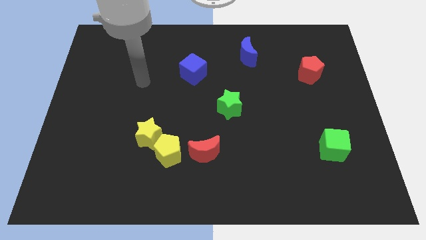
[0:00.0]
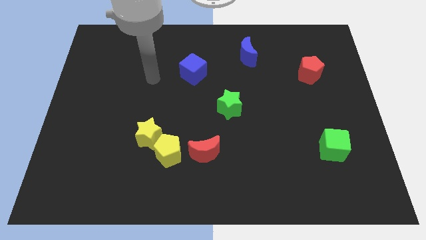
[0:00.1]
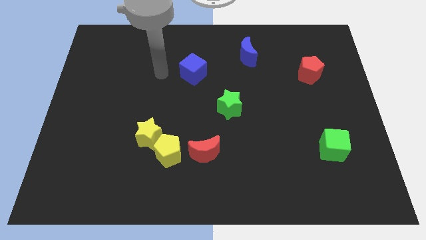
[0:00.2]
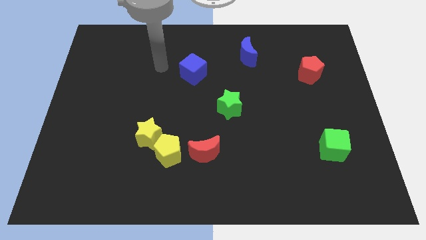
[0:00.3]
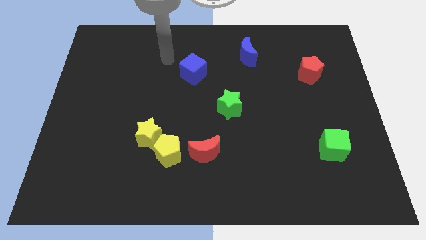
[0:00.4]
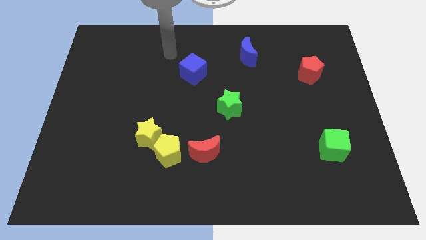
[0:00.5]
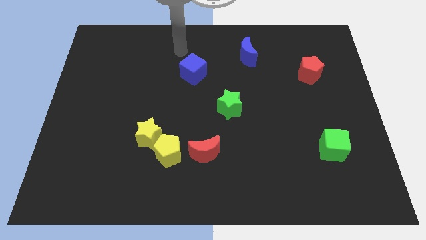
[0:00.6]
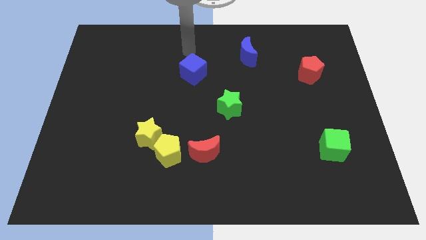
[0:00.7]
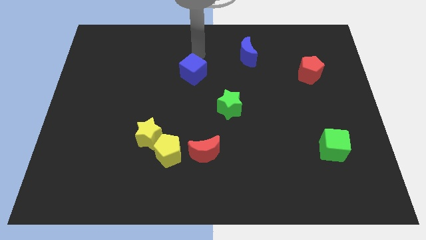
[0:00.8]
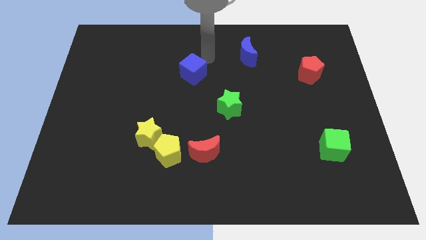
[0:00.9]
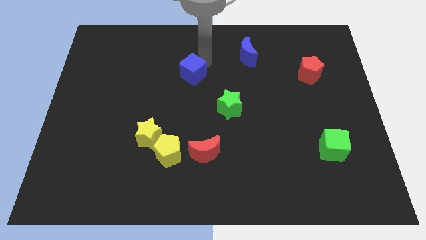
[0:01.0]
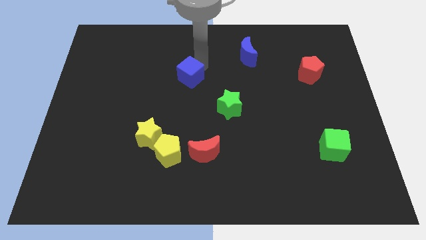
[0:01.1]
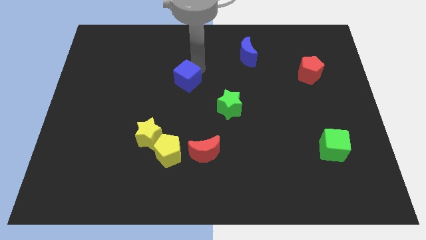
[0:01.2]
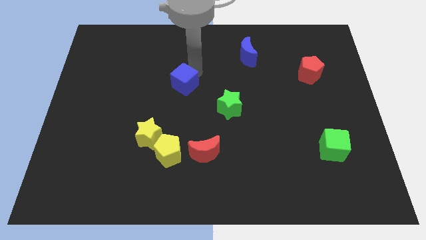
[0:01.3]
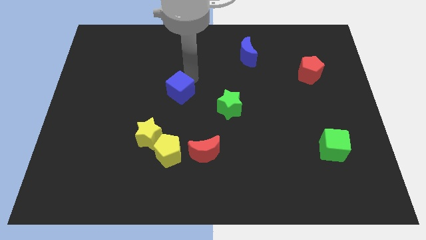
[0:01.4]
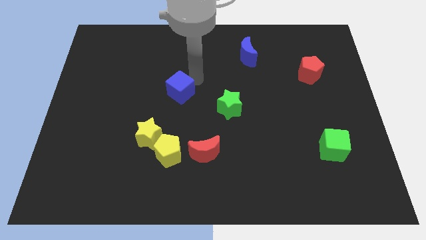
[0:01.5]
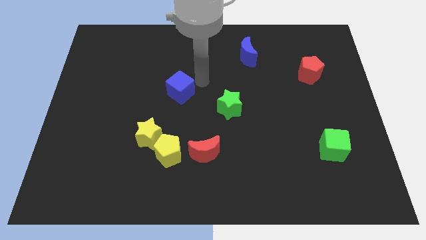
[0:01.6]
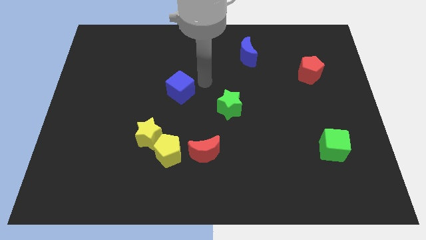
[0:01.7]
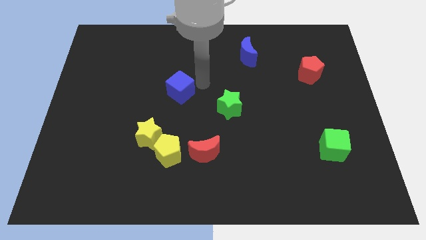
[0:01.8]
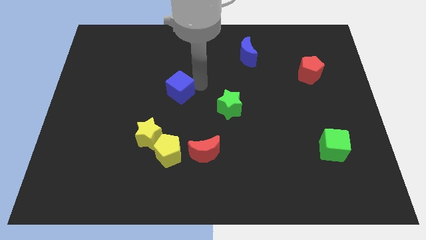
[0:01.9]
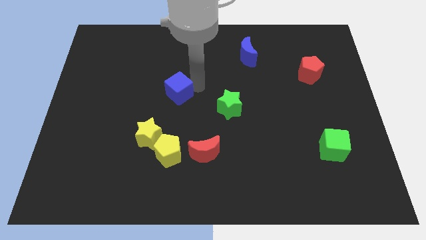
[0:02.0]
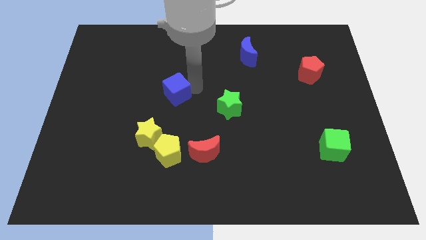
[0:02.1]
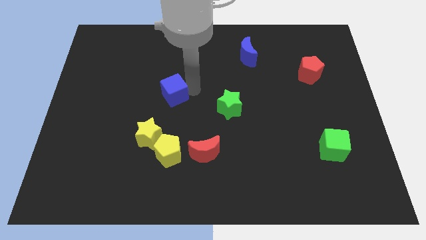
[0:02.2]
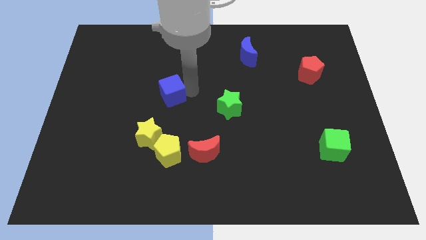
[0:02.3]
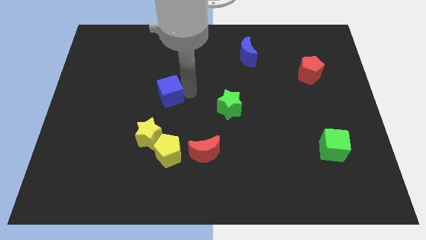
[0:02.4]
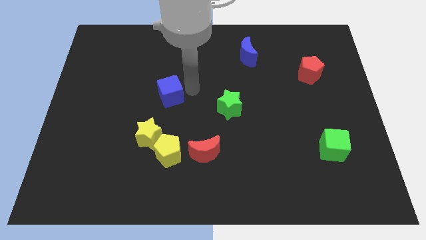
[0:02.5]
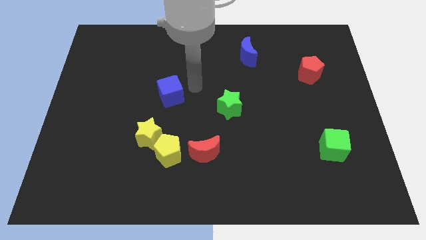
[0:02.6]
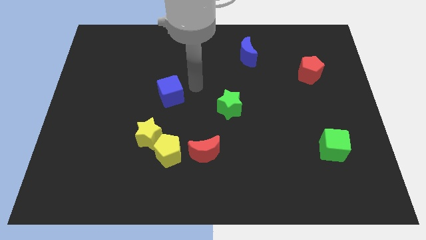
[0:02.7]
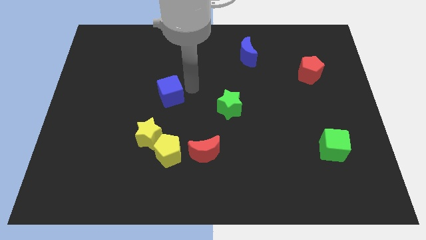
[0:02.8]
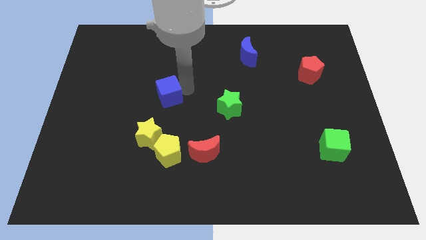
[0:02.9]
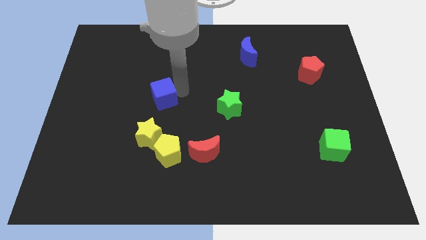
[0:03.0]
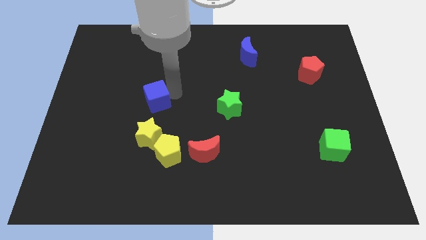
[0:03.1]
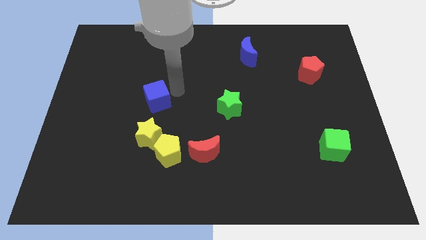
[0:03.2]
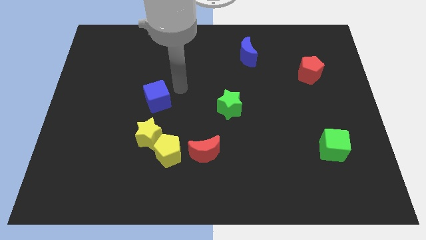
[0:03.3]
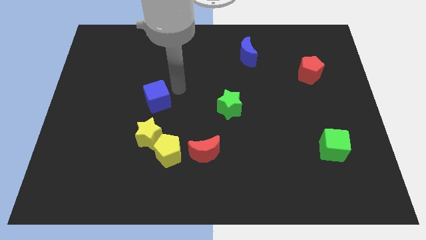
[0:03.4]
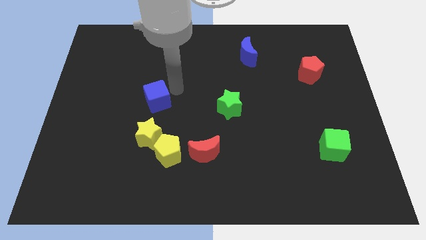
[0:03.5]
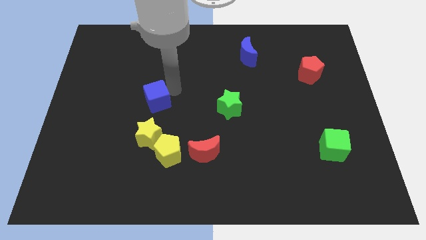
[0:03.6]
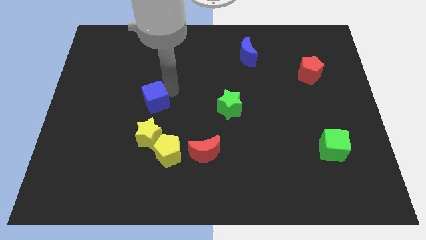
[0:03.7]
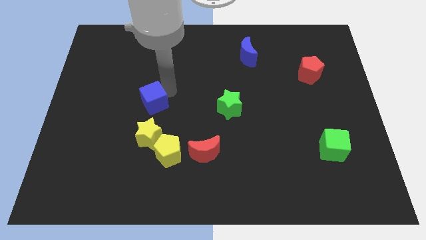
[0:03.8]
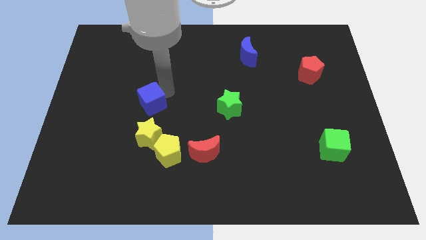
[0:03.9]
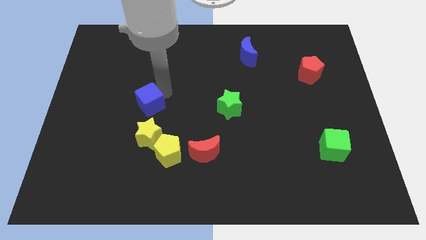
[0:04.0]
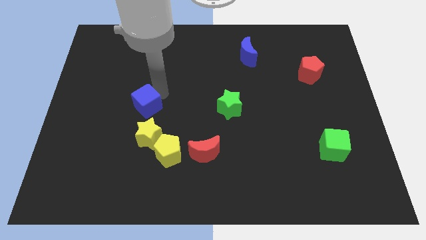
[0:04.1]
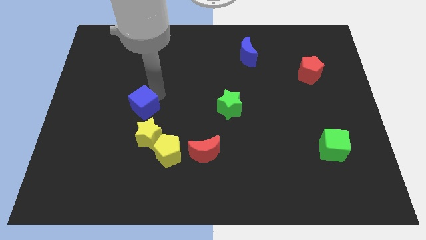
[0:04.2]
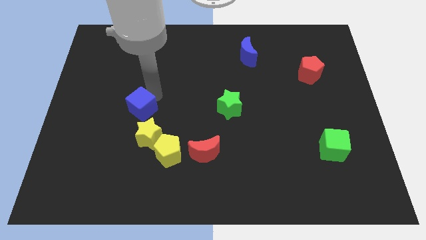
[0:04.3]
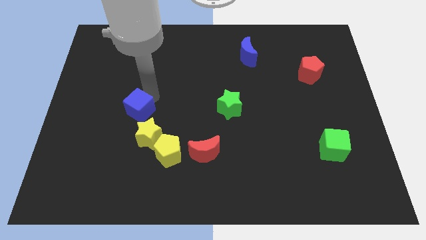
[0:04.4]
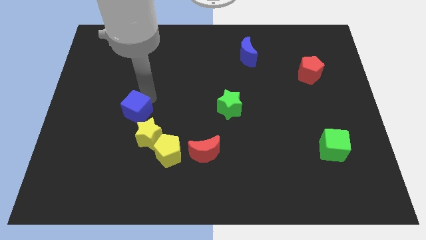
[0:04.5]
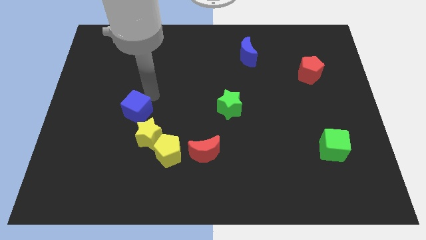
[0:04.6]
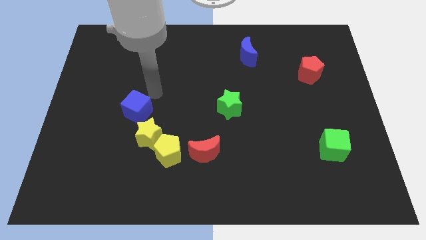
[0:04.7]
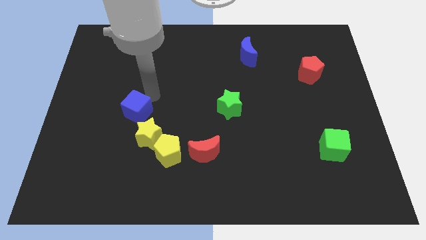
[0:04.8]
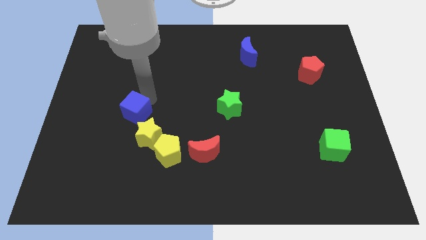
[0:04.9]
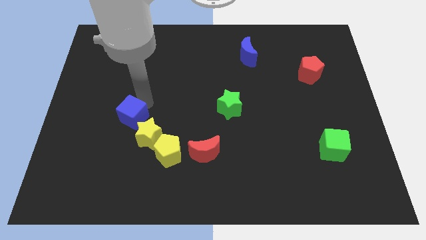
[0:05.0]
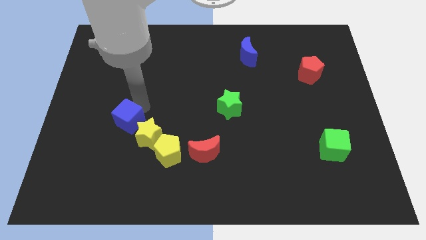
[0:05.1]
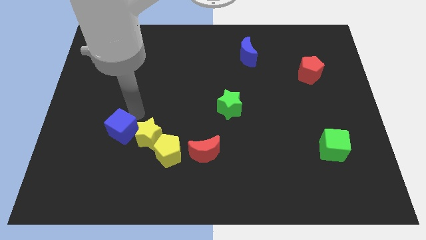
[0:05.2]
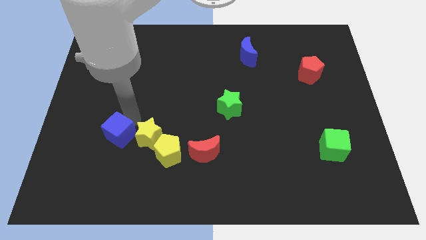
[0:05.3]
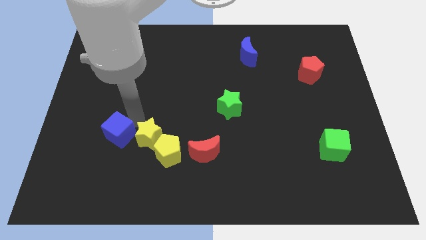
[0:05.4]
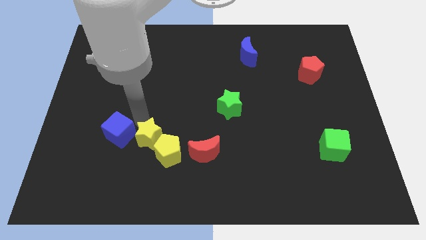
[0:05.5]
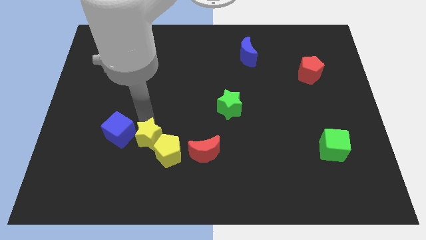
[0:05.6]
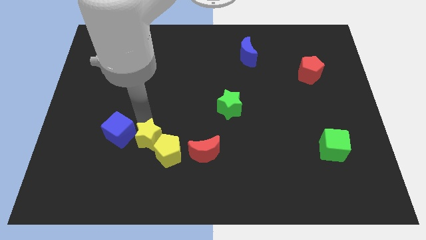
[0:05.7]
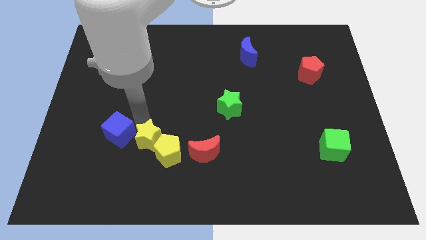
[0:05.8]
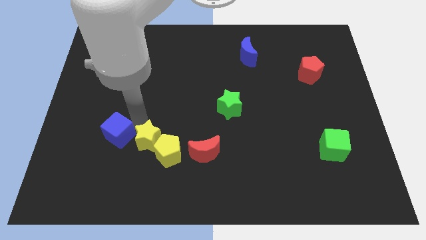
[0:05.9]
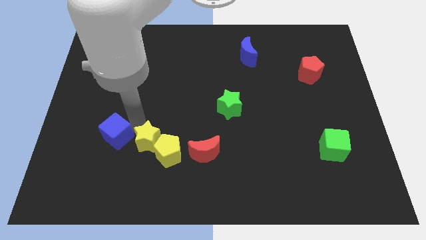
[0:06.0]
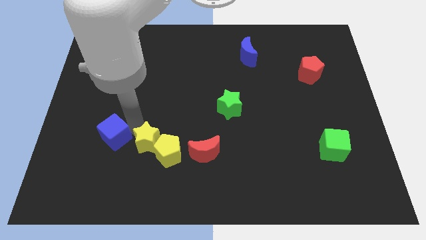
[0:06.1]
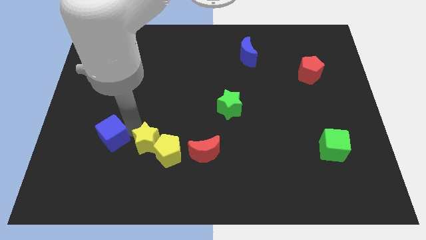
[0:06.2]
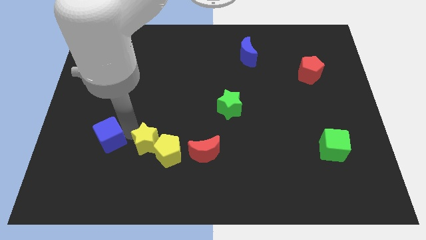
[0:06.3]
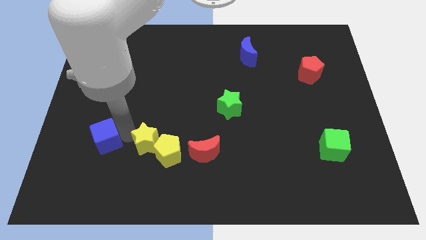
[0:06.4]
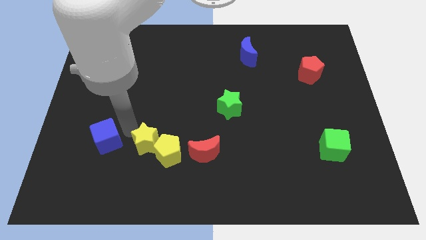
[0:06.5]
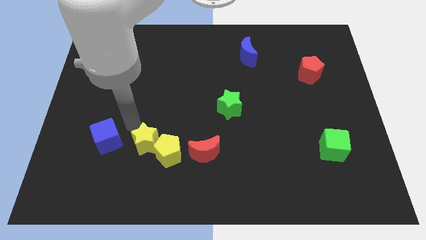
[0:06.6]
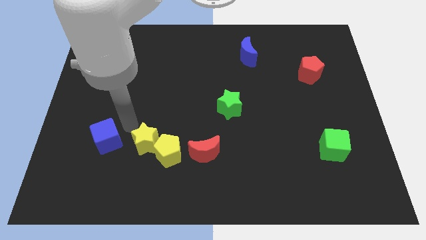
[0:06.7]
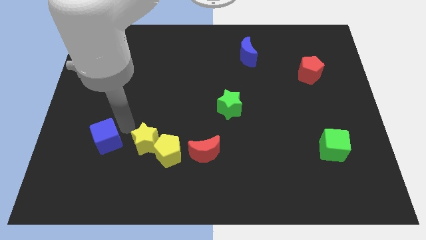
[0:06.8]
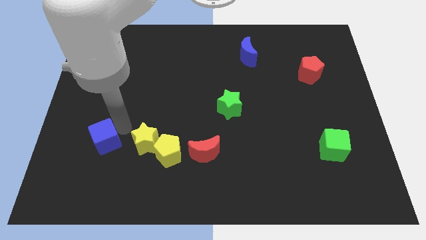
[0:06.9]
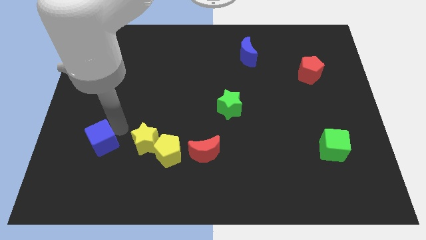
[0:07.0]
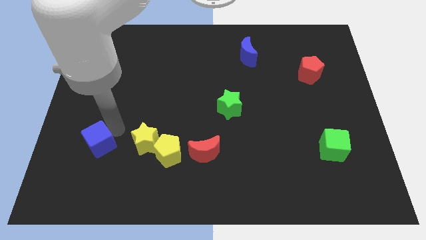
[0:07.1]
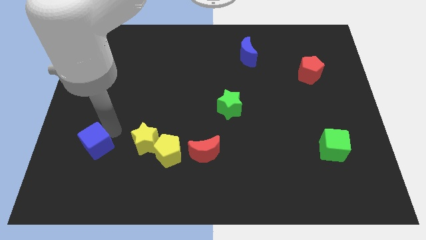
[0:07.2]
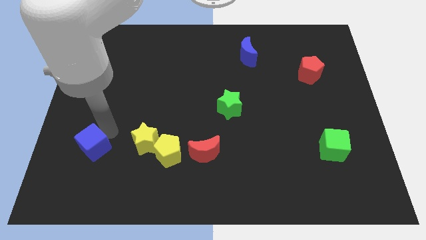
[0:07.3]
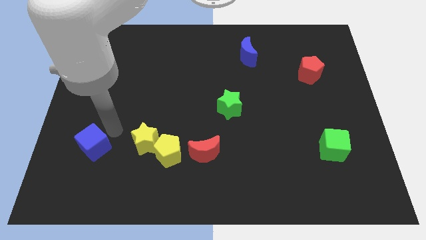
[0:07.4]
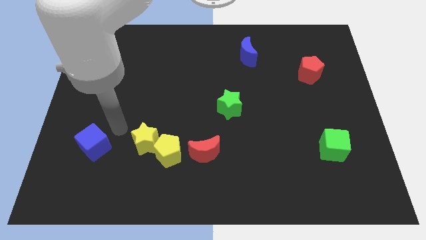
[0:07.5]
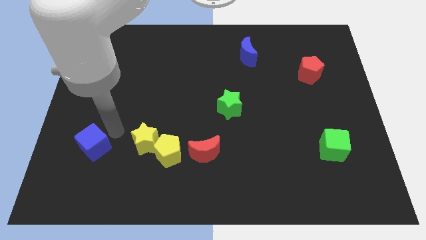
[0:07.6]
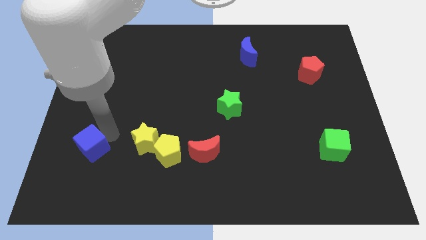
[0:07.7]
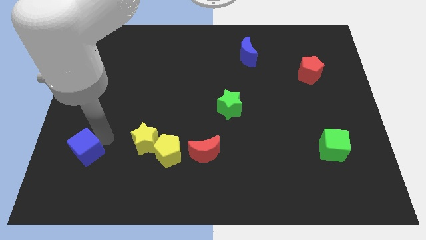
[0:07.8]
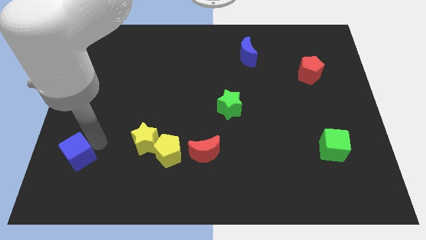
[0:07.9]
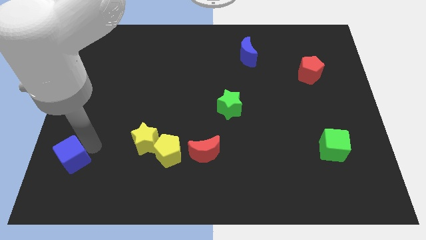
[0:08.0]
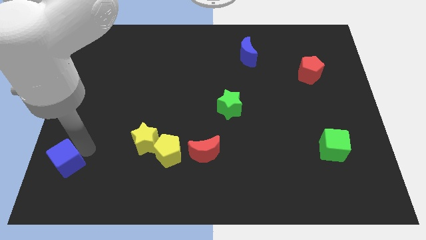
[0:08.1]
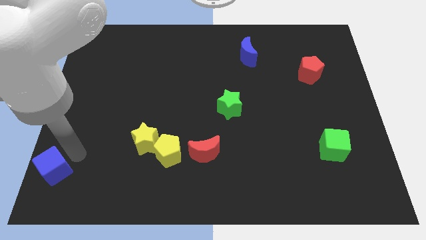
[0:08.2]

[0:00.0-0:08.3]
move the blue cube to the bottom left corner
